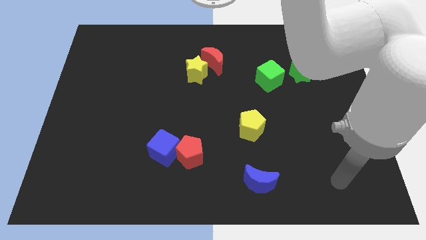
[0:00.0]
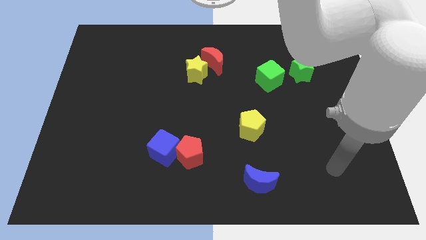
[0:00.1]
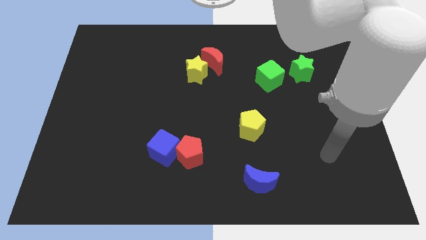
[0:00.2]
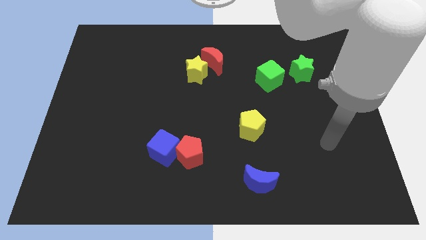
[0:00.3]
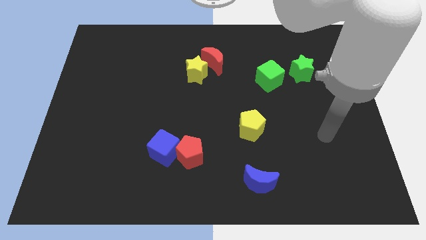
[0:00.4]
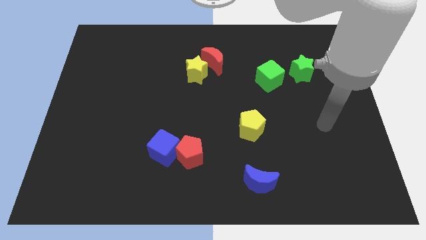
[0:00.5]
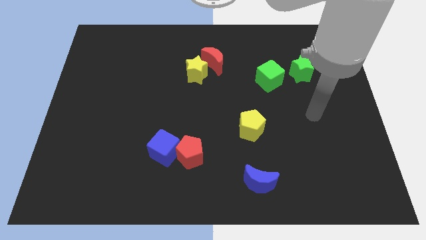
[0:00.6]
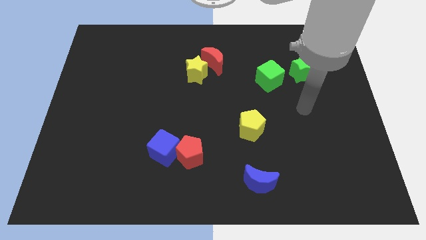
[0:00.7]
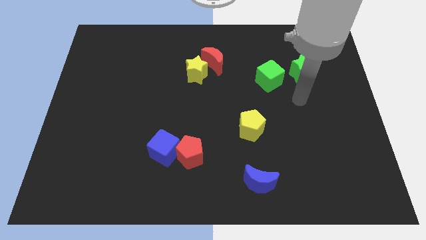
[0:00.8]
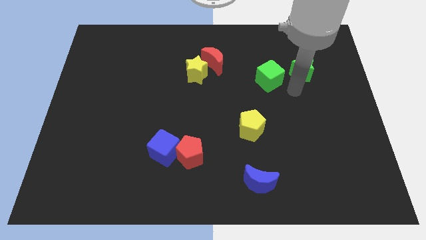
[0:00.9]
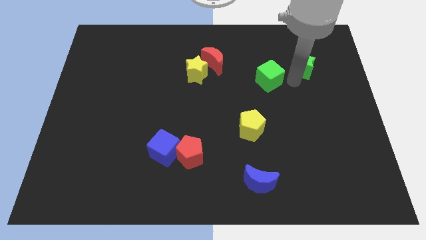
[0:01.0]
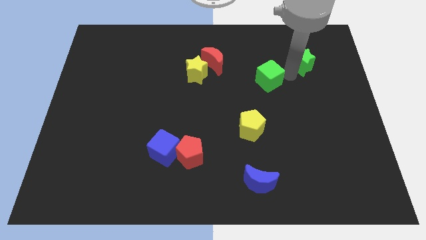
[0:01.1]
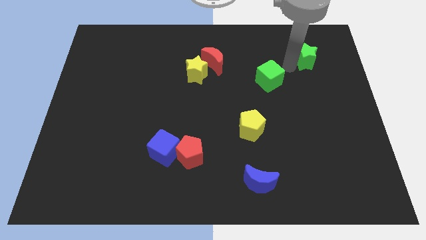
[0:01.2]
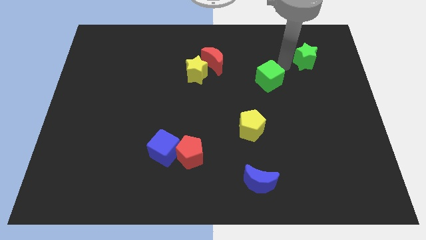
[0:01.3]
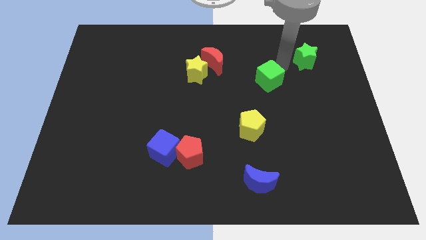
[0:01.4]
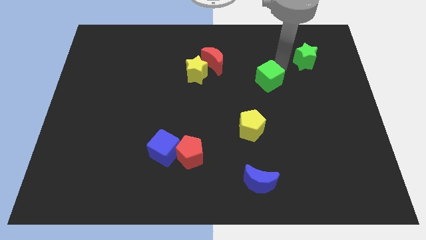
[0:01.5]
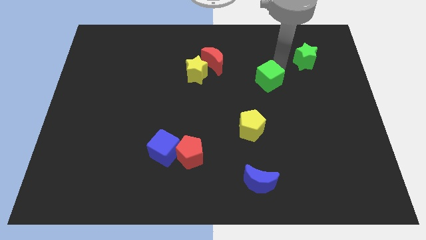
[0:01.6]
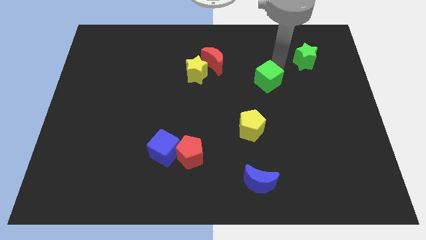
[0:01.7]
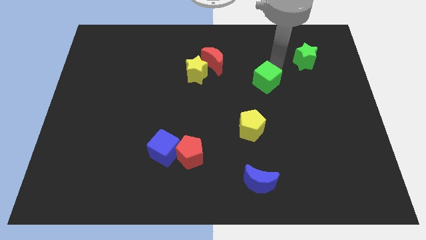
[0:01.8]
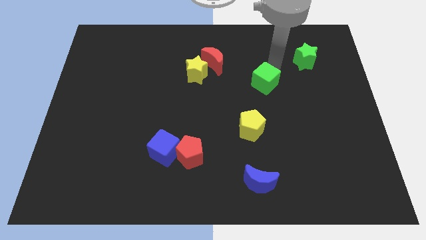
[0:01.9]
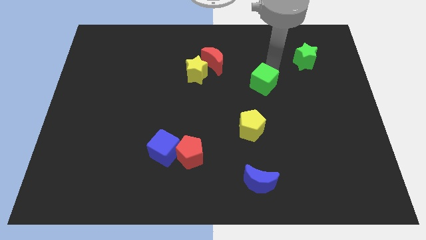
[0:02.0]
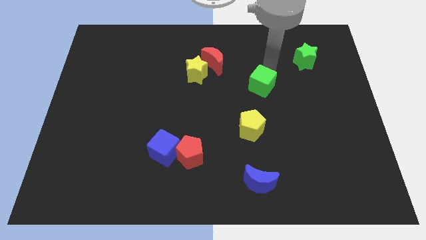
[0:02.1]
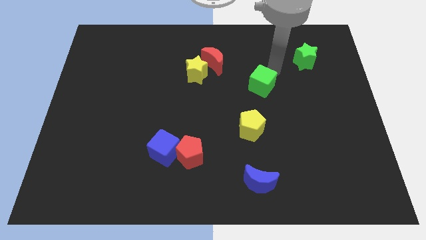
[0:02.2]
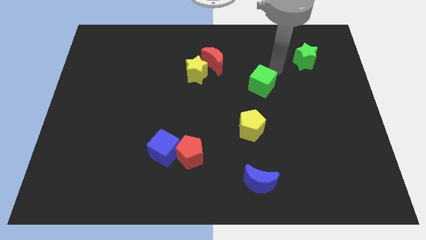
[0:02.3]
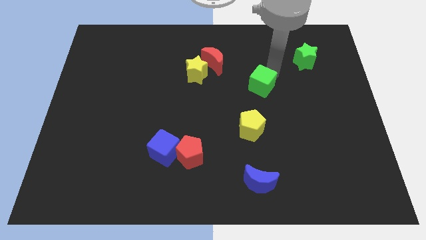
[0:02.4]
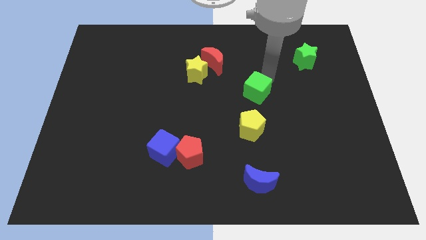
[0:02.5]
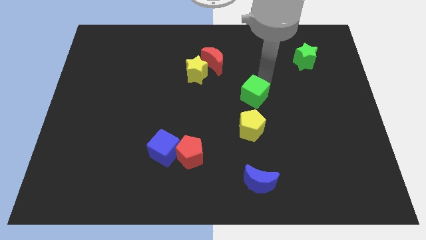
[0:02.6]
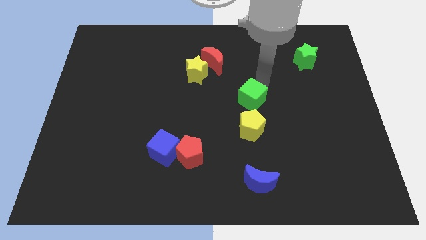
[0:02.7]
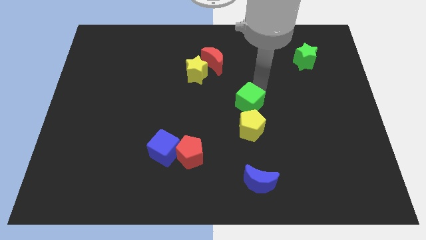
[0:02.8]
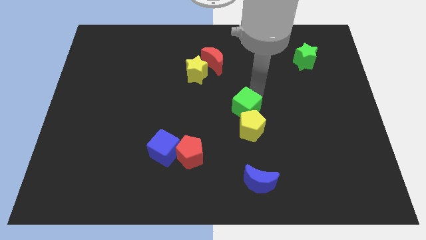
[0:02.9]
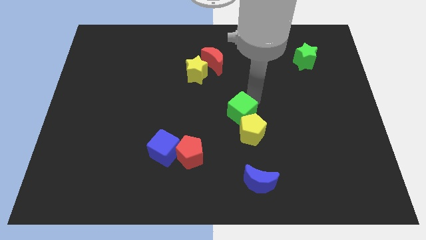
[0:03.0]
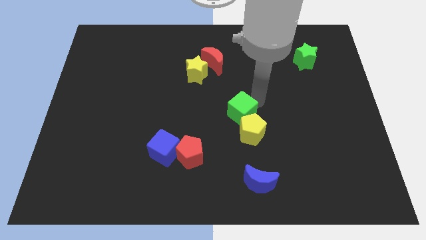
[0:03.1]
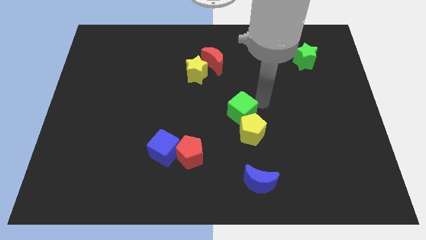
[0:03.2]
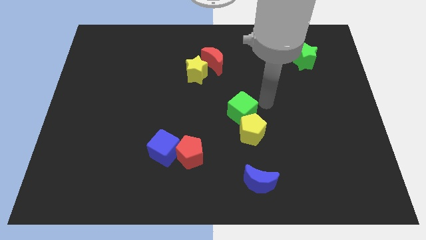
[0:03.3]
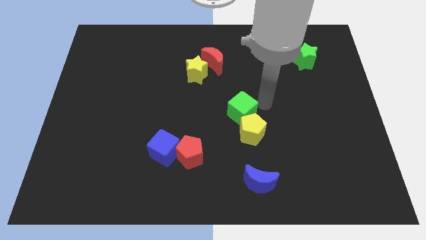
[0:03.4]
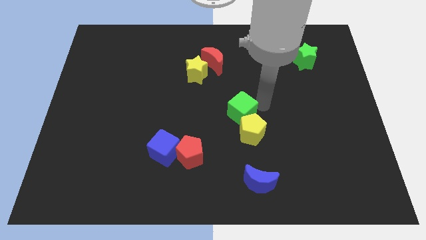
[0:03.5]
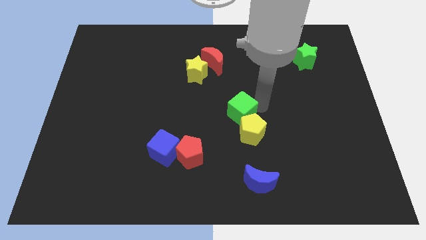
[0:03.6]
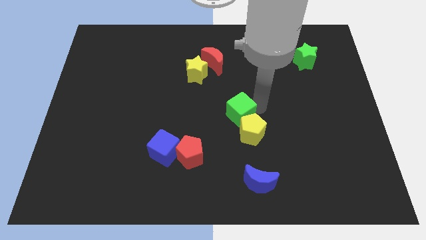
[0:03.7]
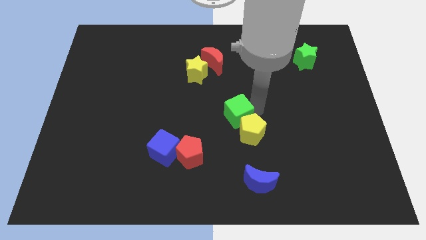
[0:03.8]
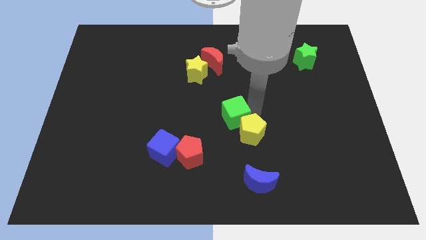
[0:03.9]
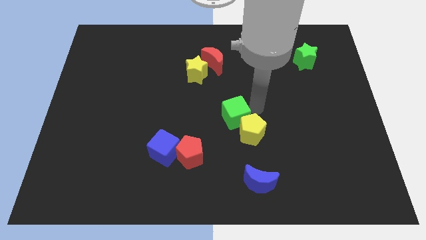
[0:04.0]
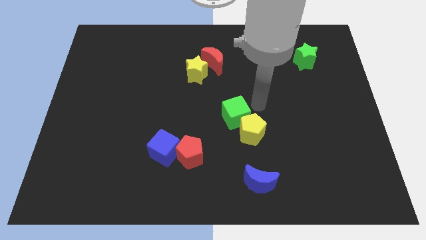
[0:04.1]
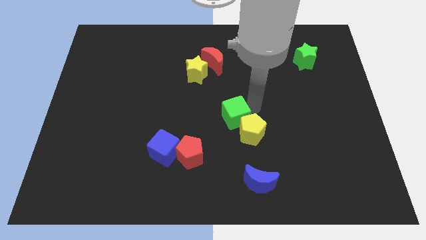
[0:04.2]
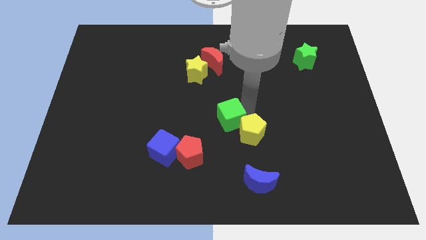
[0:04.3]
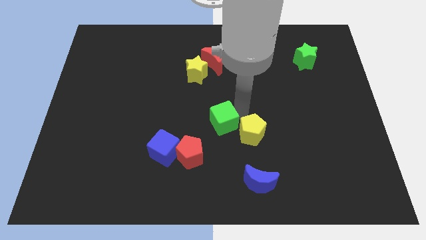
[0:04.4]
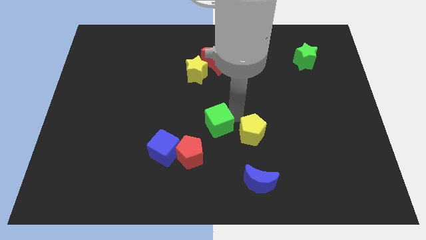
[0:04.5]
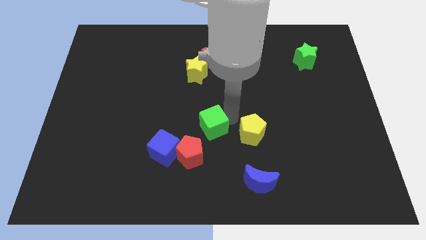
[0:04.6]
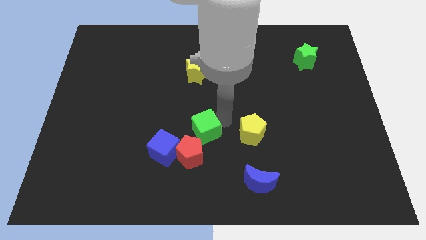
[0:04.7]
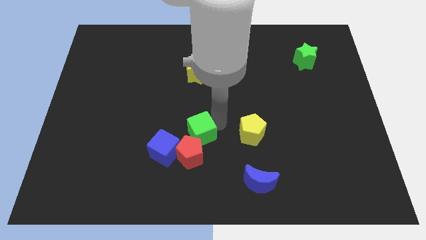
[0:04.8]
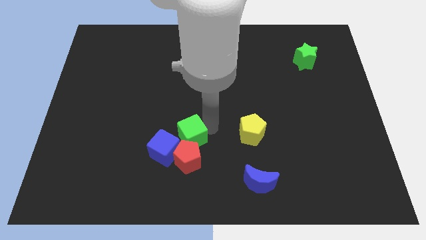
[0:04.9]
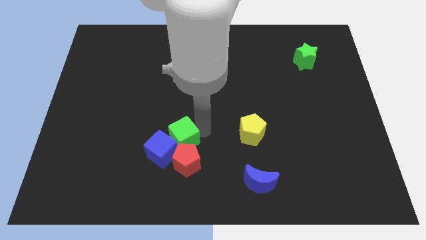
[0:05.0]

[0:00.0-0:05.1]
put the green cube next to the blue cube

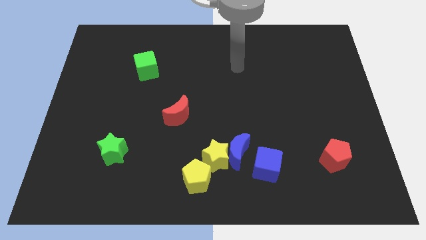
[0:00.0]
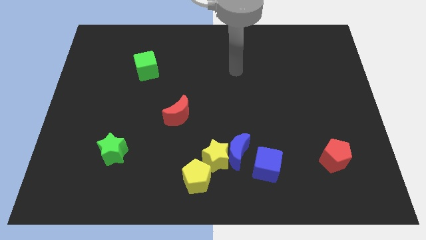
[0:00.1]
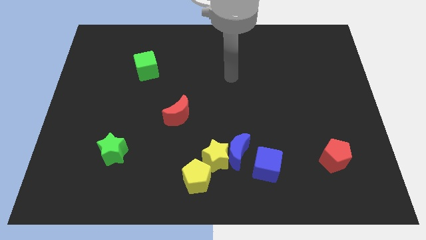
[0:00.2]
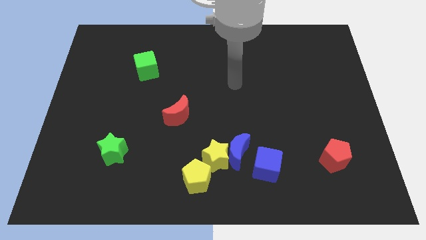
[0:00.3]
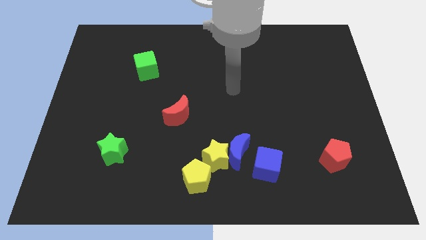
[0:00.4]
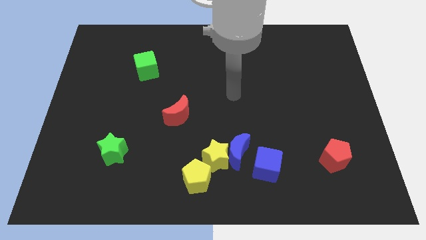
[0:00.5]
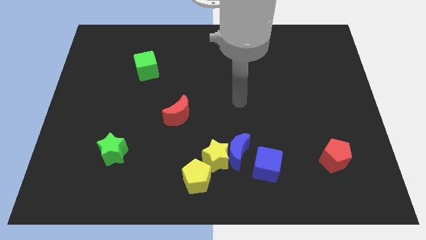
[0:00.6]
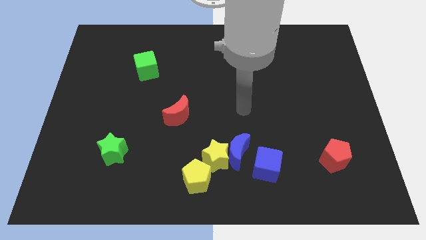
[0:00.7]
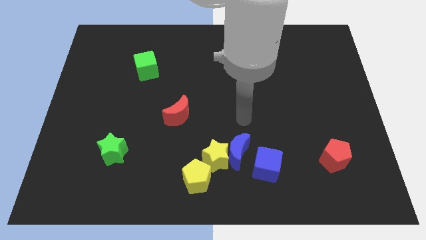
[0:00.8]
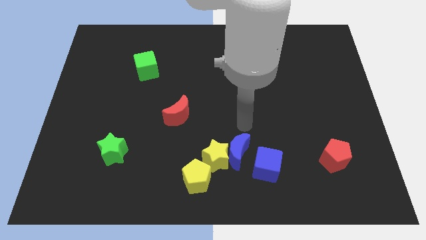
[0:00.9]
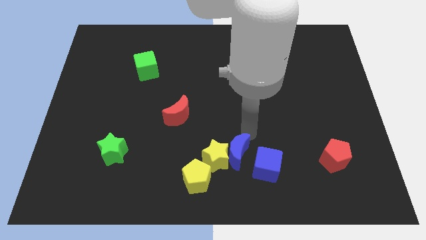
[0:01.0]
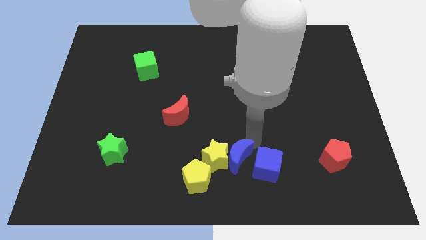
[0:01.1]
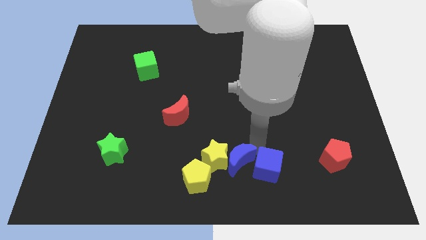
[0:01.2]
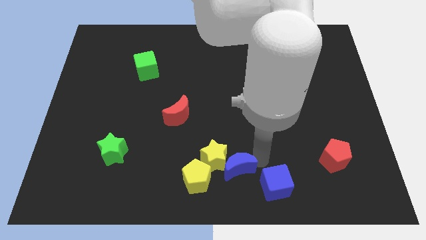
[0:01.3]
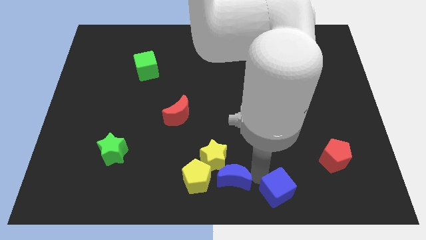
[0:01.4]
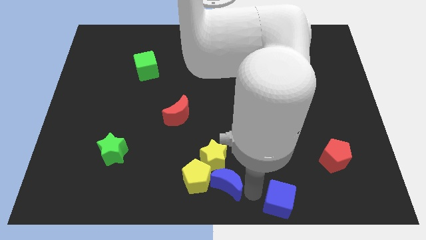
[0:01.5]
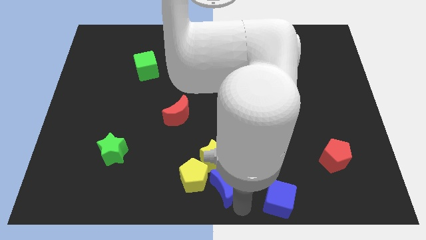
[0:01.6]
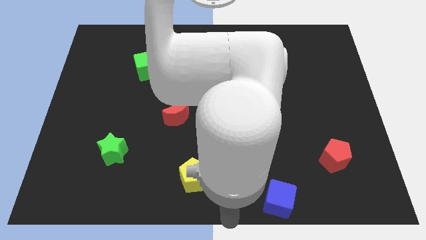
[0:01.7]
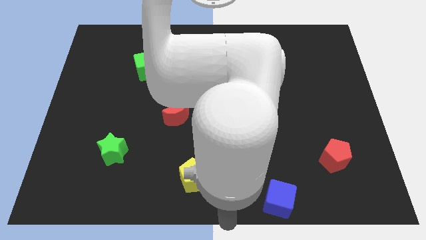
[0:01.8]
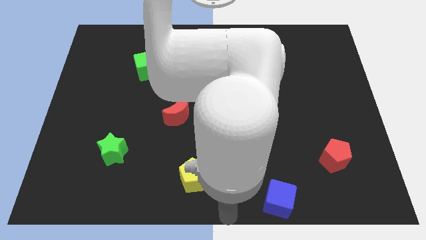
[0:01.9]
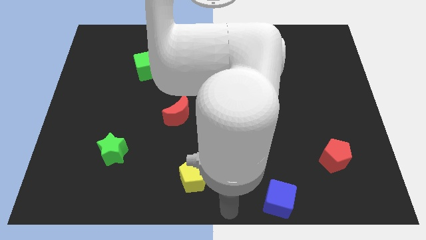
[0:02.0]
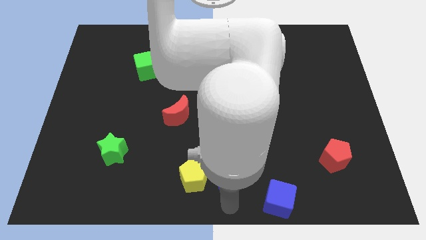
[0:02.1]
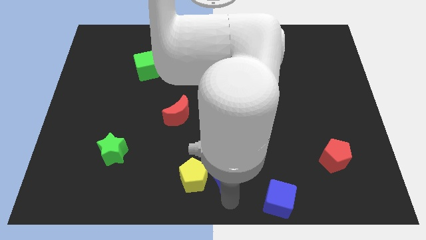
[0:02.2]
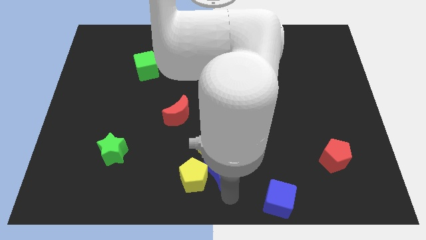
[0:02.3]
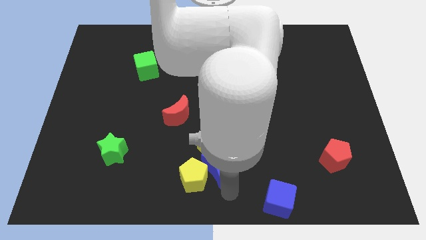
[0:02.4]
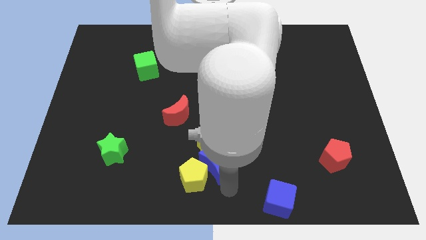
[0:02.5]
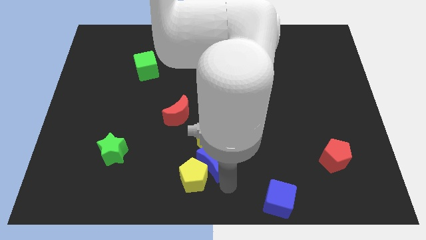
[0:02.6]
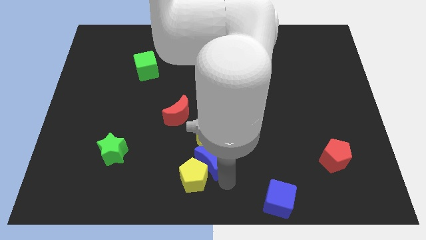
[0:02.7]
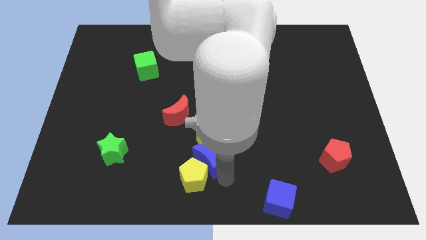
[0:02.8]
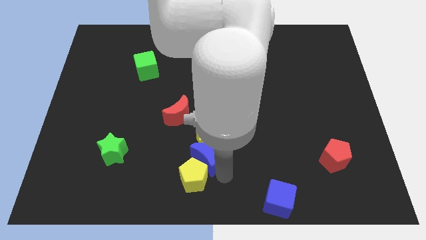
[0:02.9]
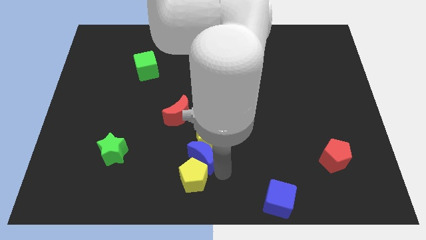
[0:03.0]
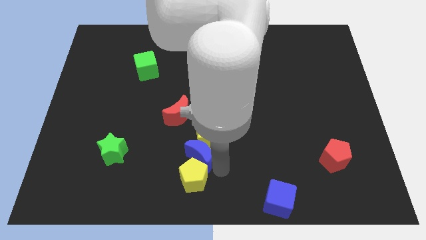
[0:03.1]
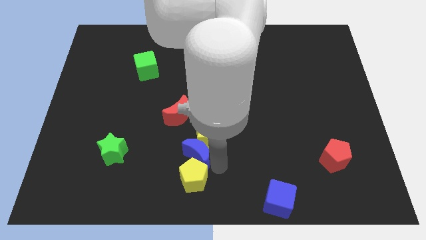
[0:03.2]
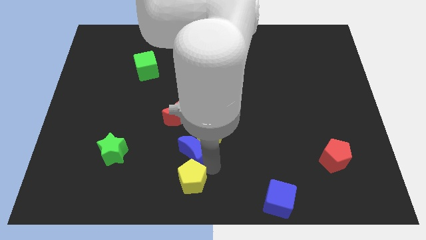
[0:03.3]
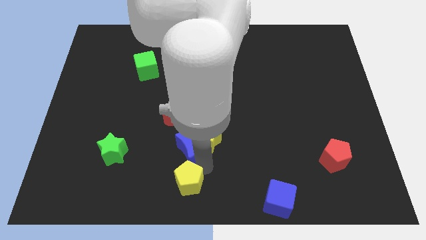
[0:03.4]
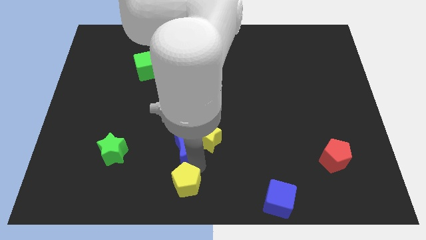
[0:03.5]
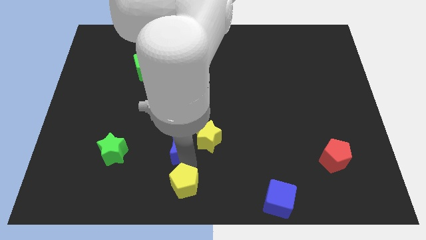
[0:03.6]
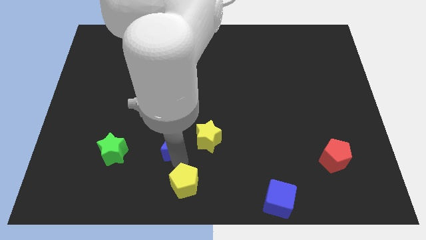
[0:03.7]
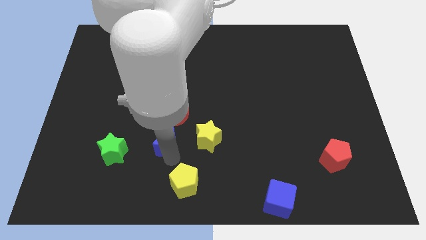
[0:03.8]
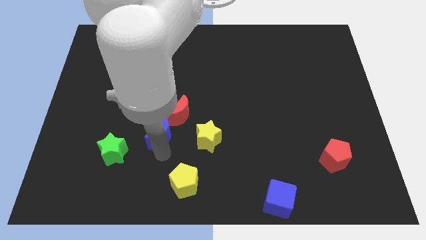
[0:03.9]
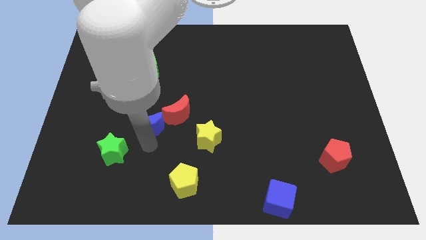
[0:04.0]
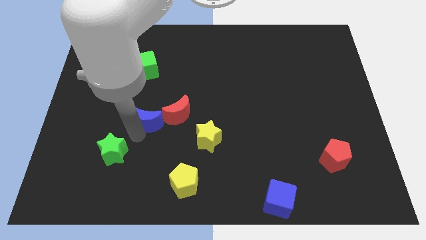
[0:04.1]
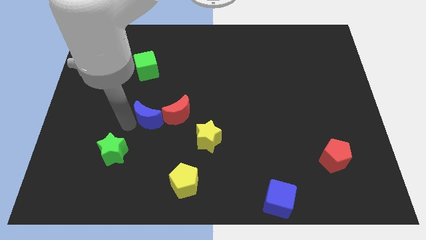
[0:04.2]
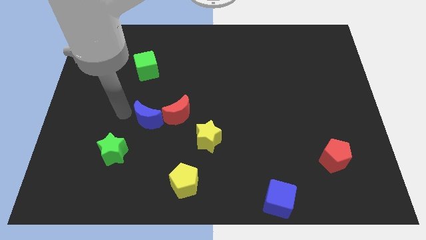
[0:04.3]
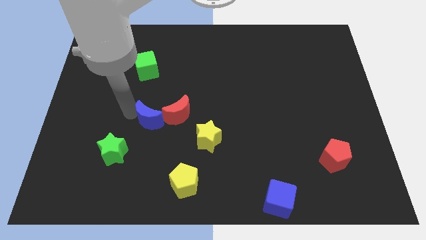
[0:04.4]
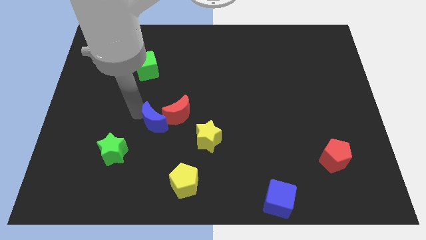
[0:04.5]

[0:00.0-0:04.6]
push the blue moon towards the red moon
